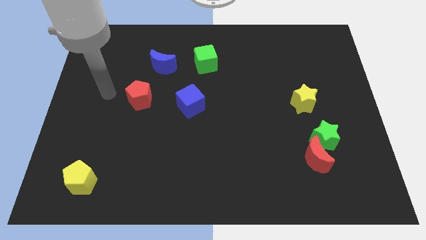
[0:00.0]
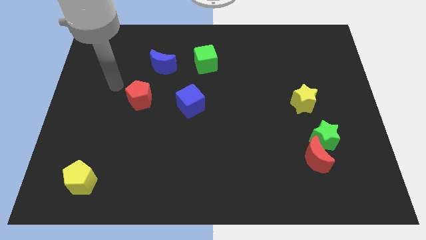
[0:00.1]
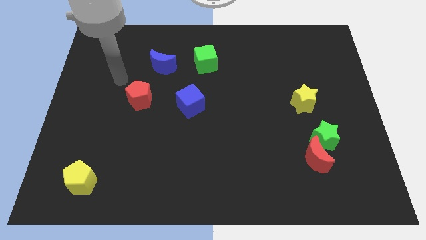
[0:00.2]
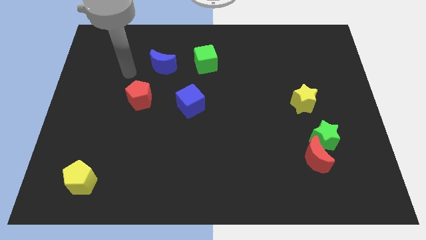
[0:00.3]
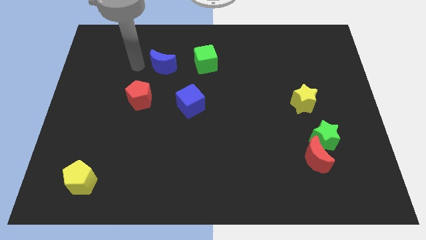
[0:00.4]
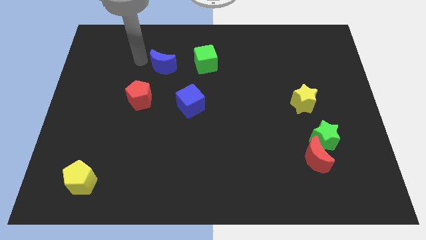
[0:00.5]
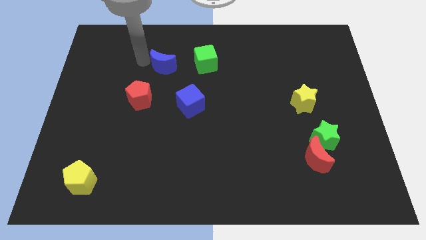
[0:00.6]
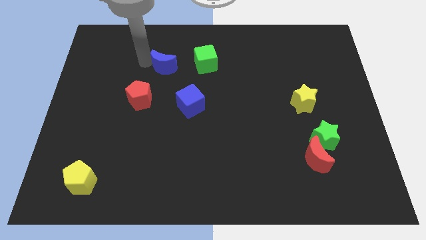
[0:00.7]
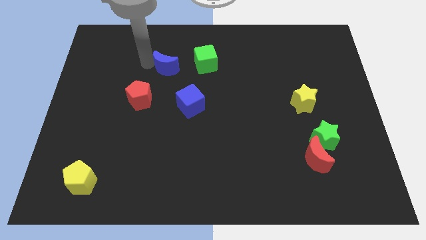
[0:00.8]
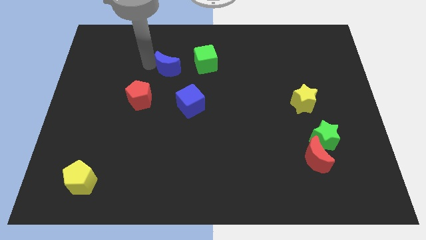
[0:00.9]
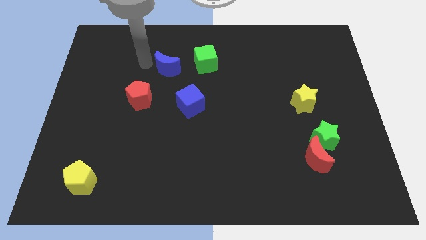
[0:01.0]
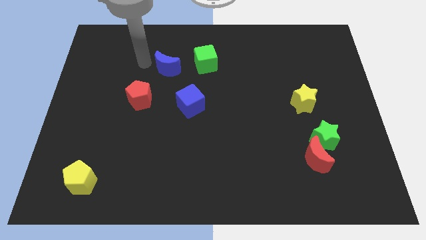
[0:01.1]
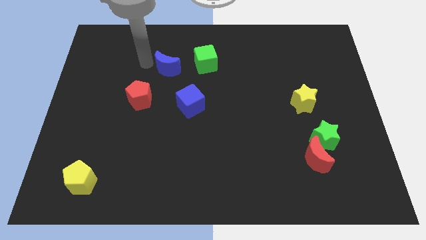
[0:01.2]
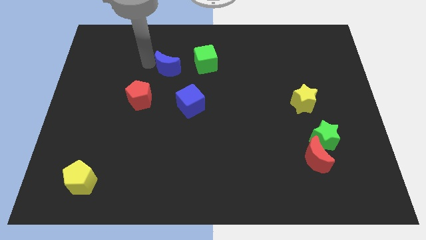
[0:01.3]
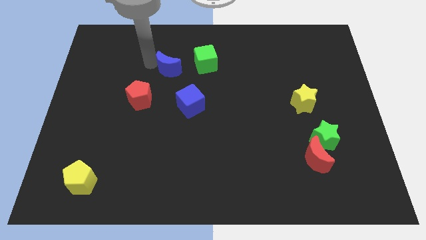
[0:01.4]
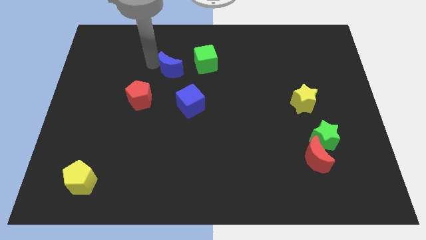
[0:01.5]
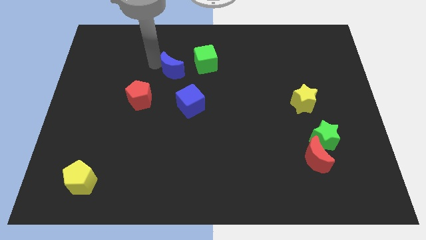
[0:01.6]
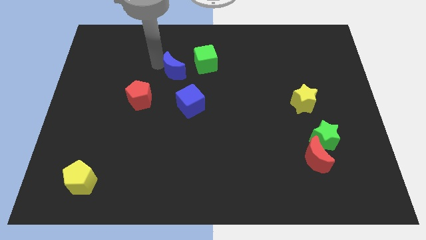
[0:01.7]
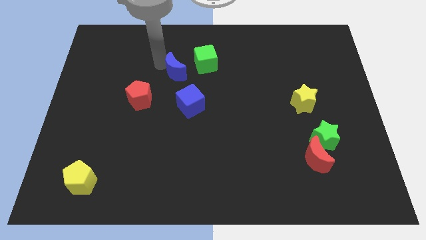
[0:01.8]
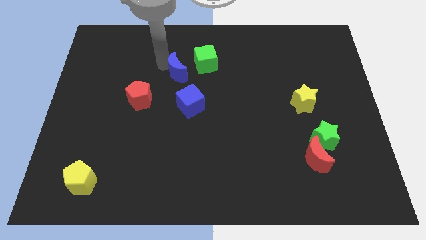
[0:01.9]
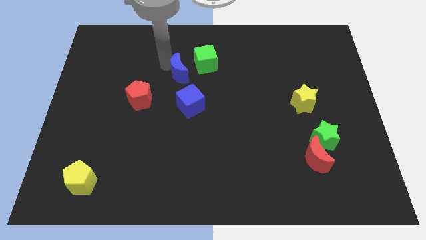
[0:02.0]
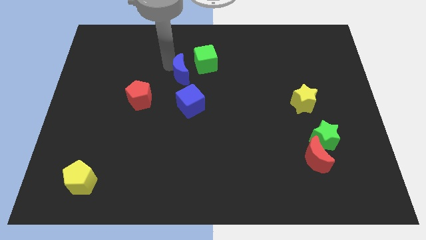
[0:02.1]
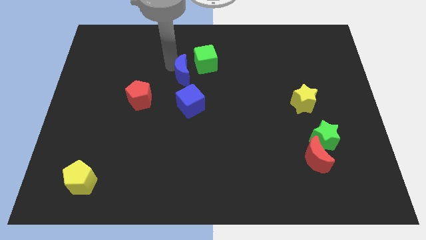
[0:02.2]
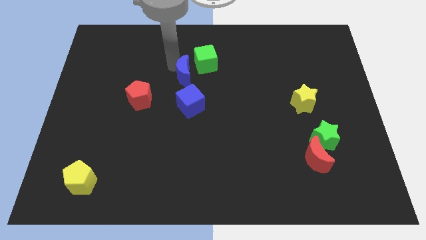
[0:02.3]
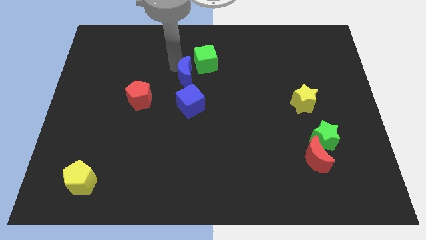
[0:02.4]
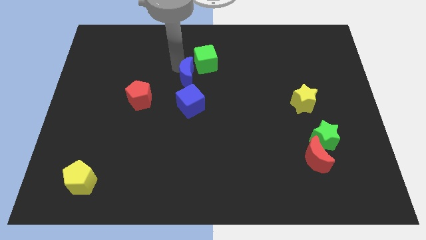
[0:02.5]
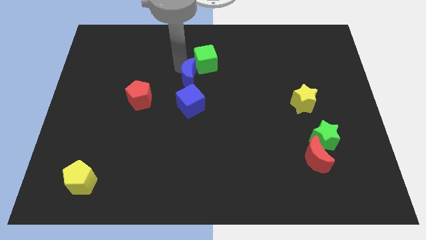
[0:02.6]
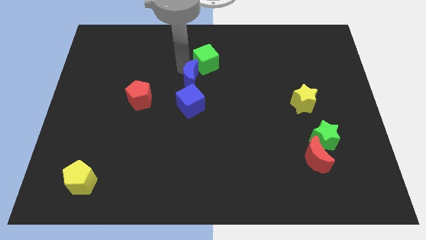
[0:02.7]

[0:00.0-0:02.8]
move the blue moon right somewhat

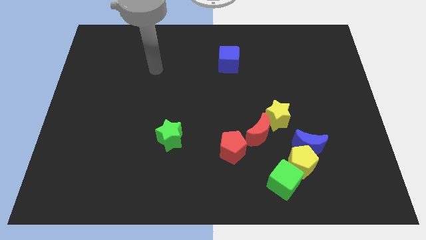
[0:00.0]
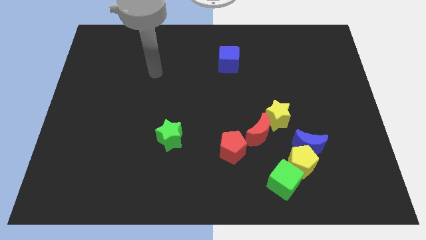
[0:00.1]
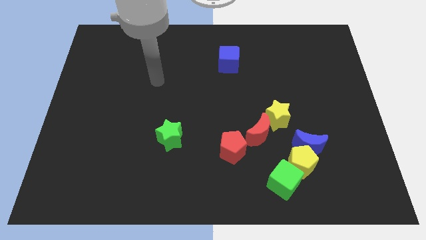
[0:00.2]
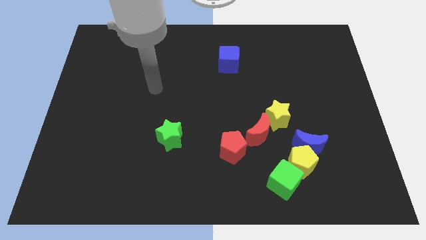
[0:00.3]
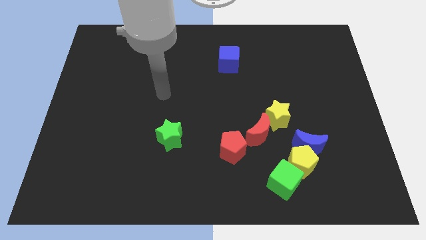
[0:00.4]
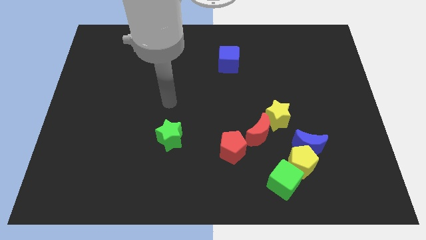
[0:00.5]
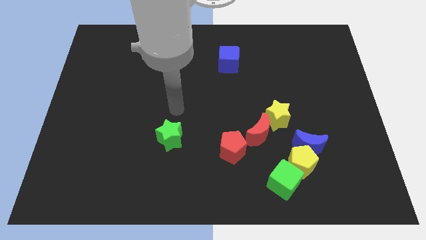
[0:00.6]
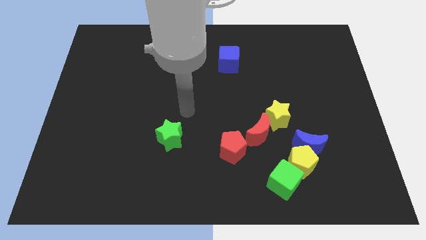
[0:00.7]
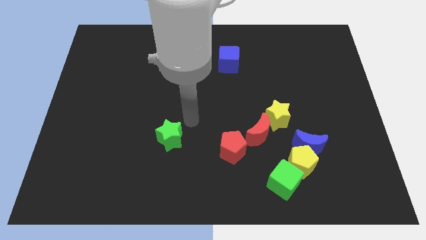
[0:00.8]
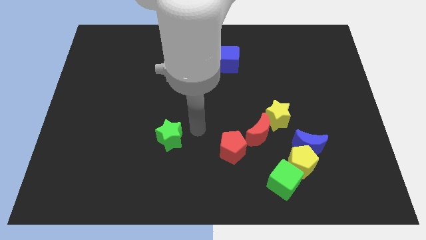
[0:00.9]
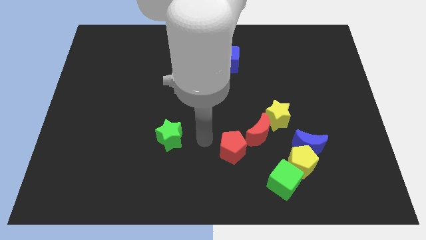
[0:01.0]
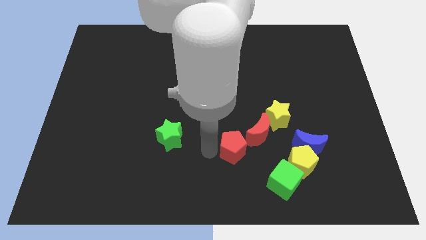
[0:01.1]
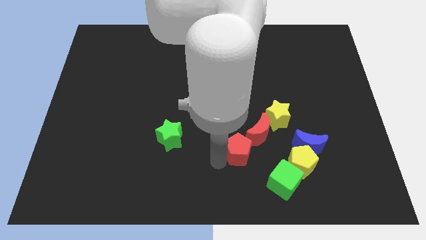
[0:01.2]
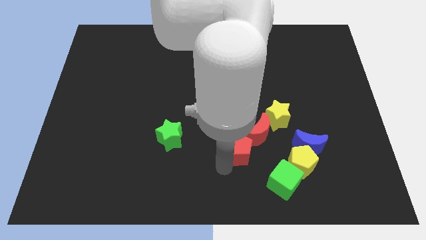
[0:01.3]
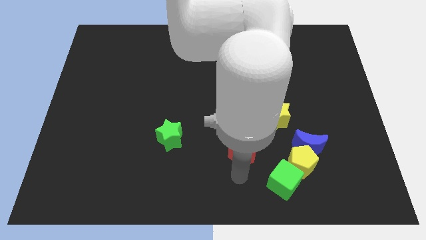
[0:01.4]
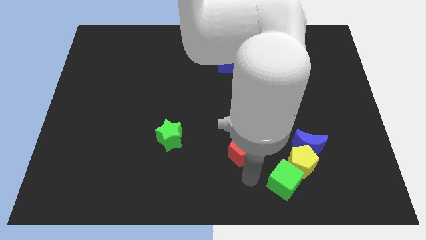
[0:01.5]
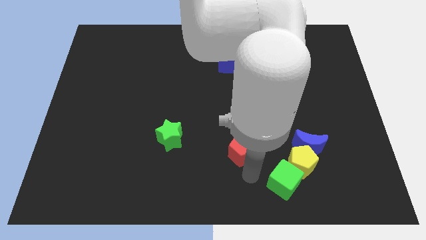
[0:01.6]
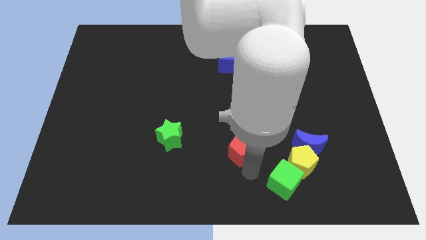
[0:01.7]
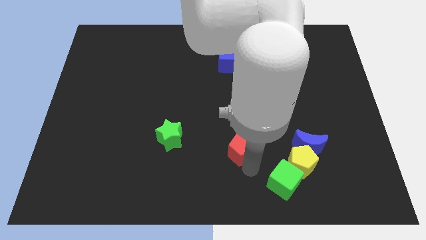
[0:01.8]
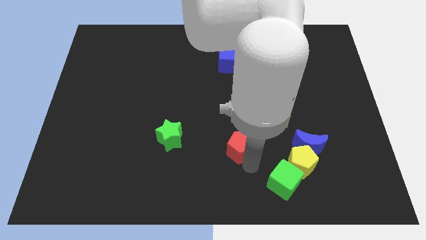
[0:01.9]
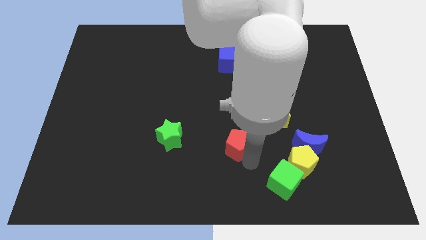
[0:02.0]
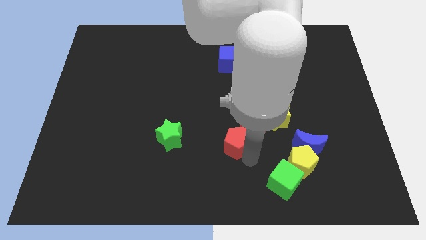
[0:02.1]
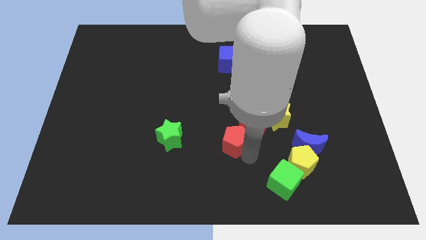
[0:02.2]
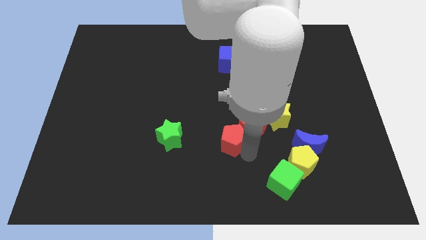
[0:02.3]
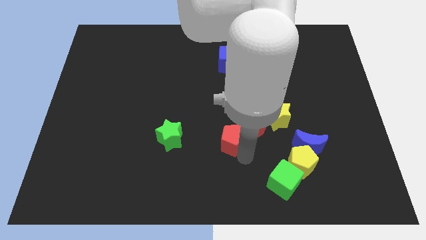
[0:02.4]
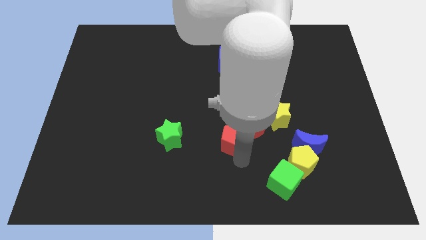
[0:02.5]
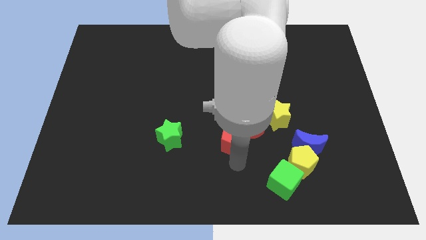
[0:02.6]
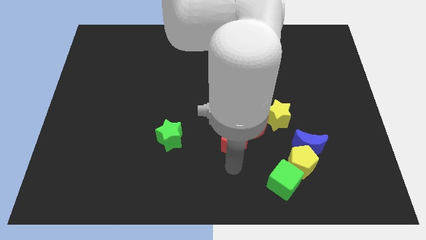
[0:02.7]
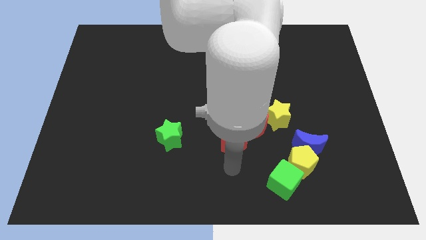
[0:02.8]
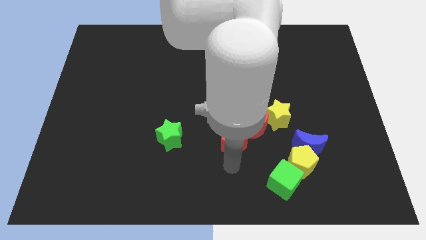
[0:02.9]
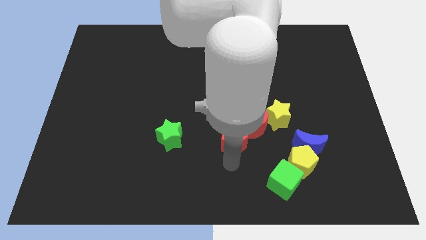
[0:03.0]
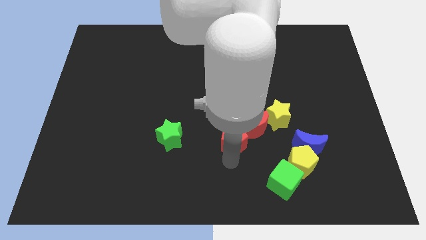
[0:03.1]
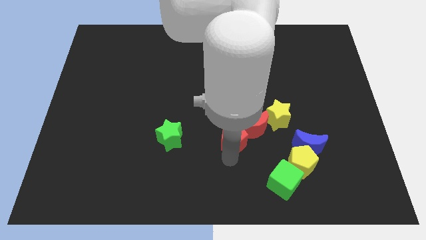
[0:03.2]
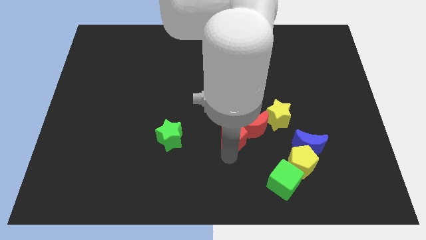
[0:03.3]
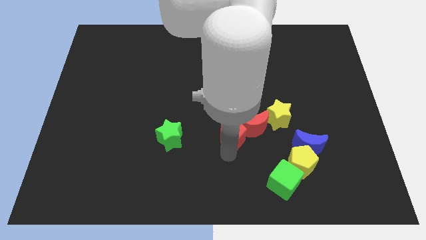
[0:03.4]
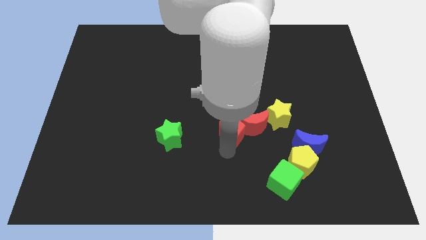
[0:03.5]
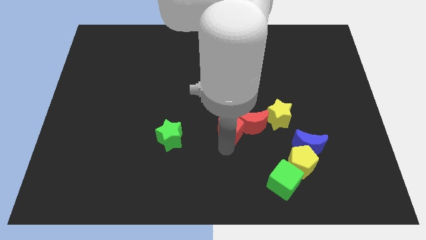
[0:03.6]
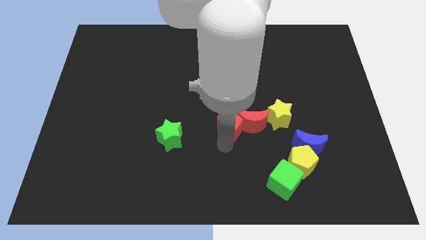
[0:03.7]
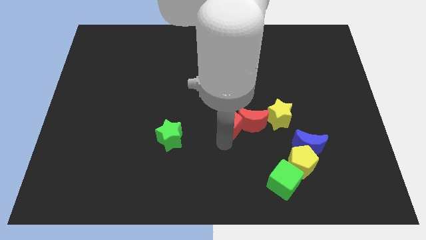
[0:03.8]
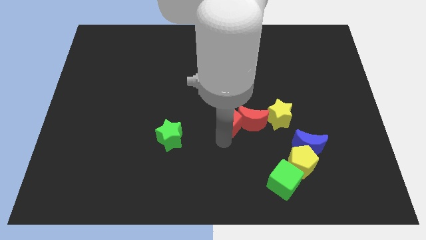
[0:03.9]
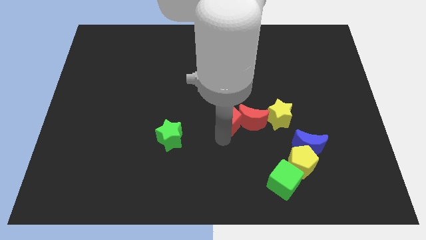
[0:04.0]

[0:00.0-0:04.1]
slide the red pentagon slightly up

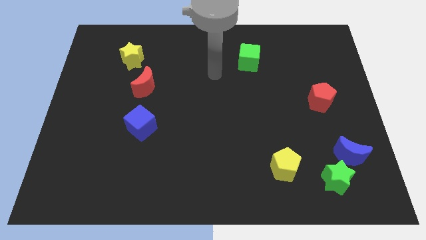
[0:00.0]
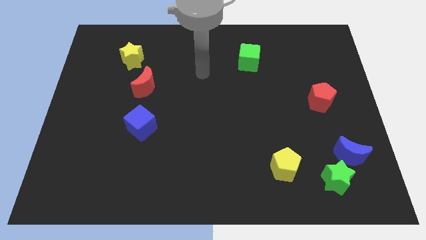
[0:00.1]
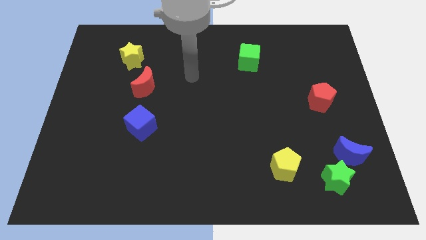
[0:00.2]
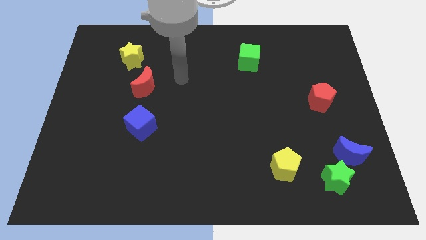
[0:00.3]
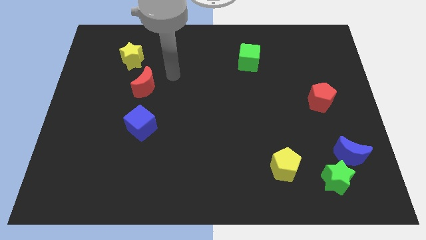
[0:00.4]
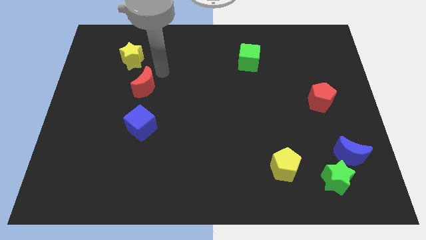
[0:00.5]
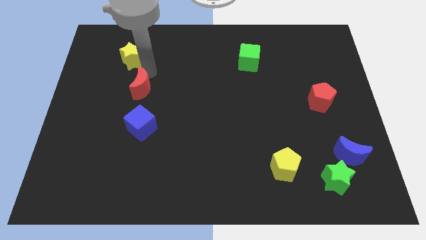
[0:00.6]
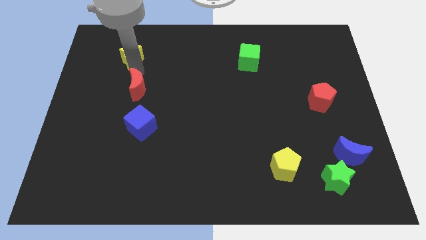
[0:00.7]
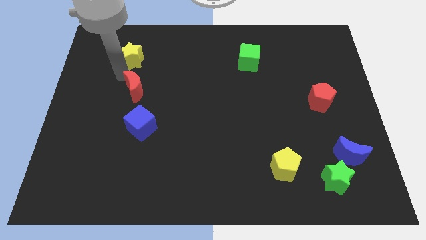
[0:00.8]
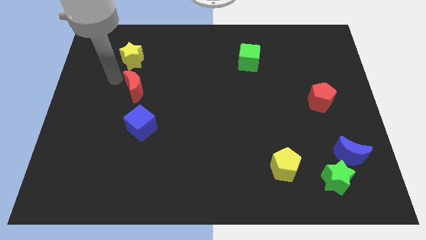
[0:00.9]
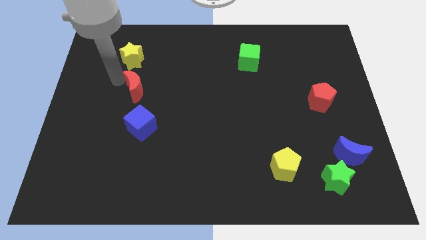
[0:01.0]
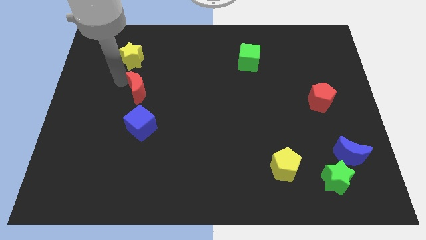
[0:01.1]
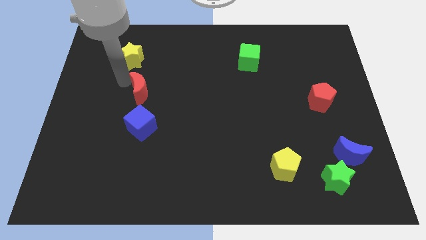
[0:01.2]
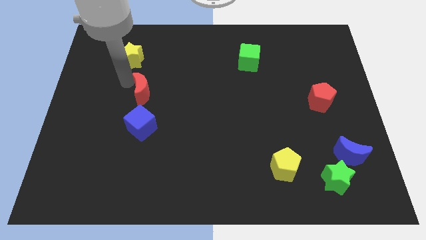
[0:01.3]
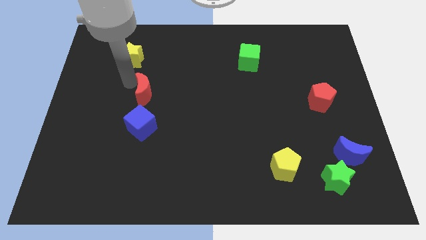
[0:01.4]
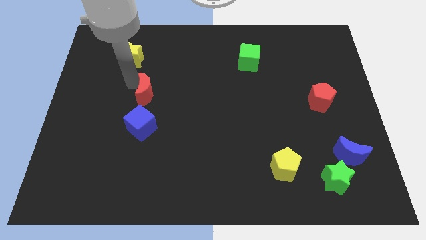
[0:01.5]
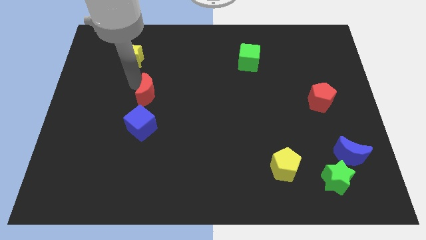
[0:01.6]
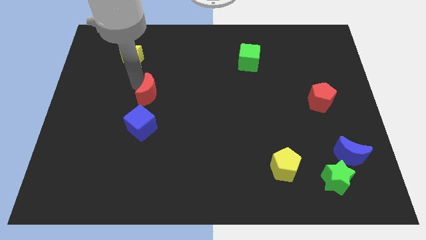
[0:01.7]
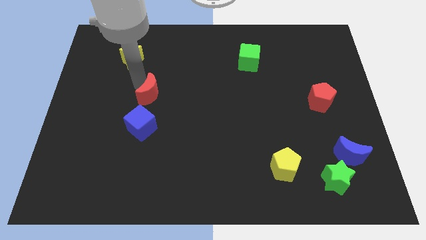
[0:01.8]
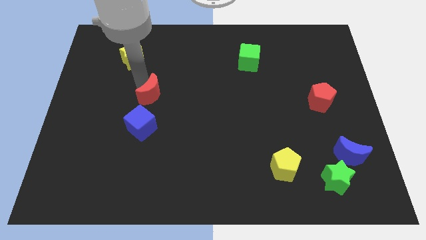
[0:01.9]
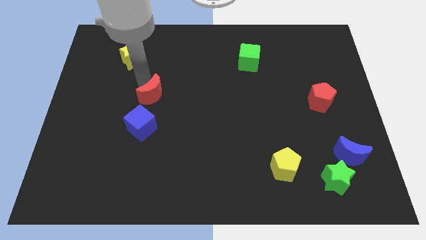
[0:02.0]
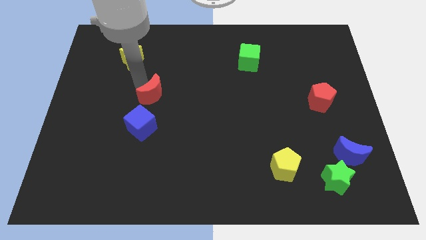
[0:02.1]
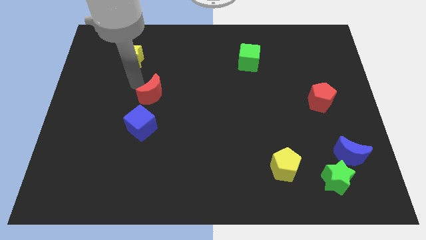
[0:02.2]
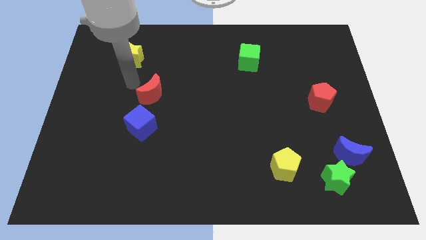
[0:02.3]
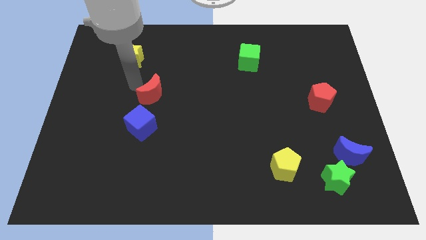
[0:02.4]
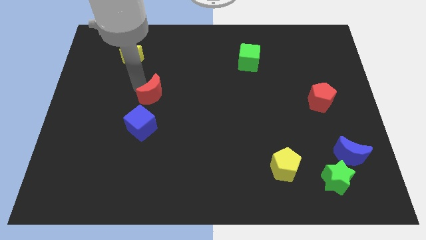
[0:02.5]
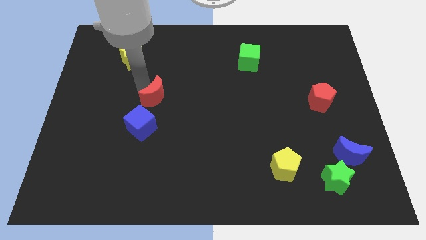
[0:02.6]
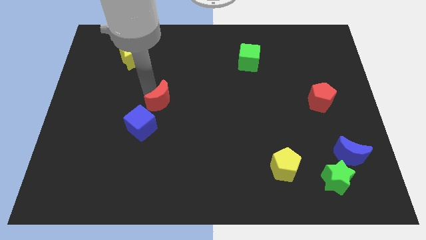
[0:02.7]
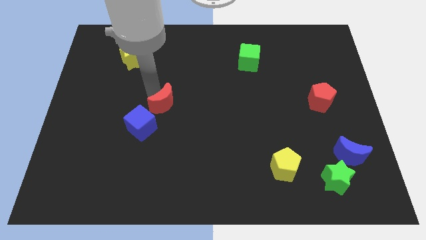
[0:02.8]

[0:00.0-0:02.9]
push the red moon downwards and right somewhat
